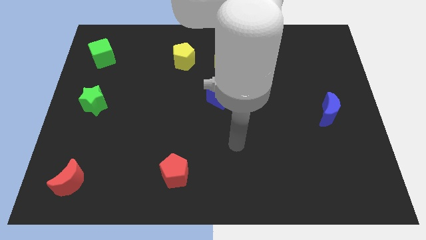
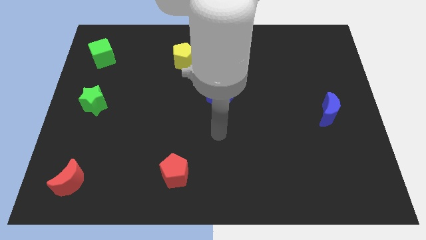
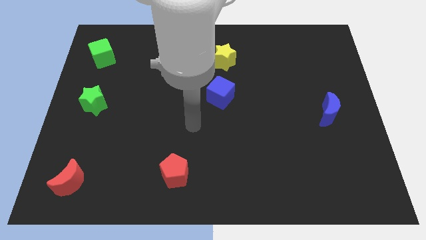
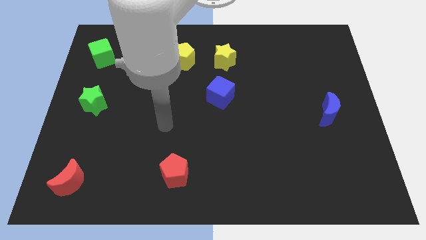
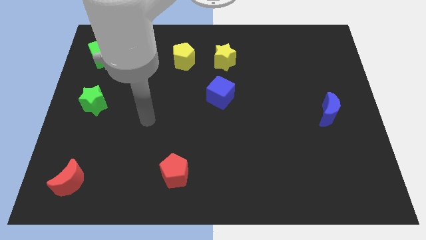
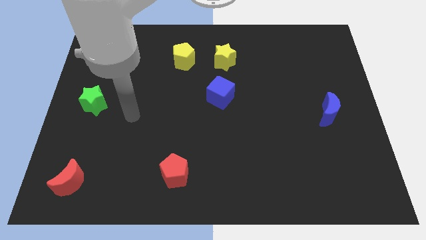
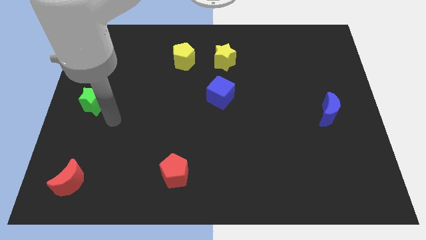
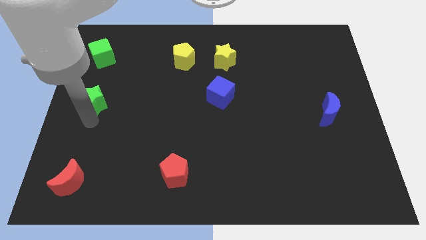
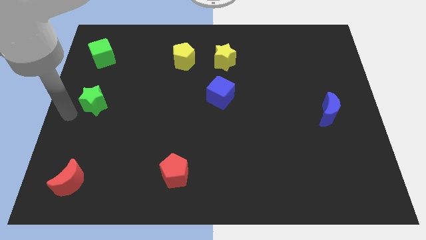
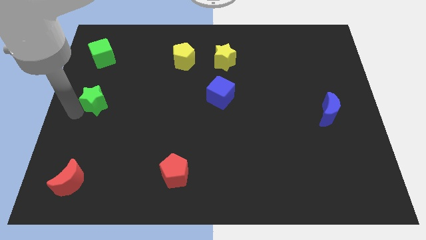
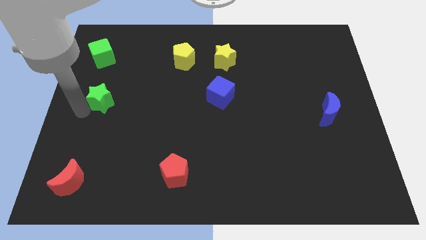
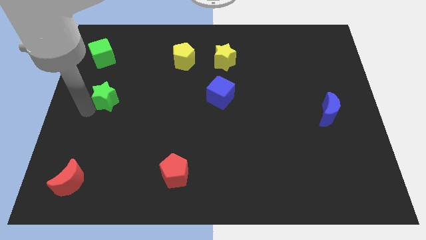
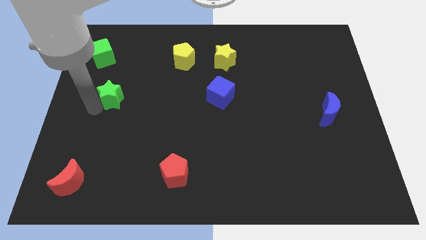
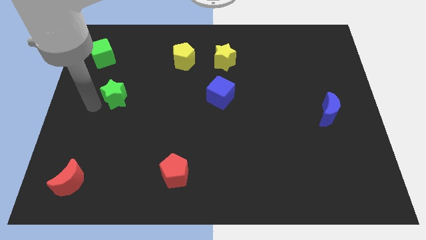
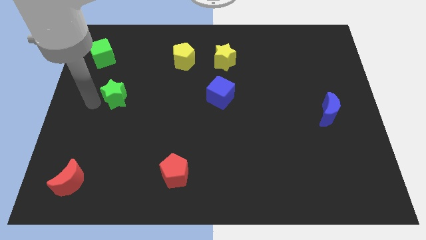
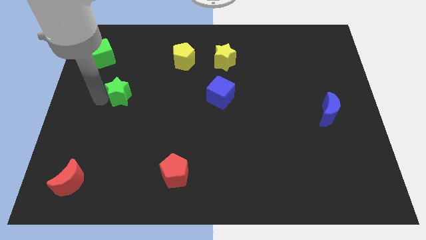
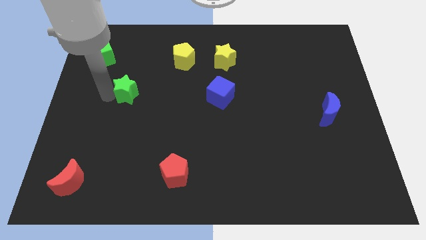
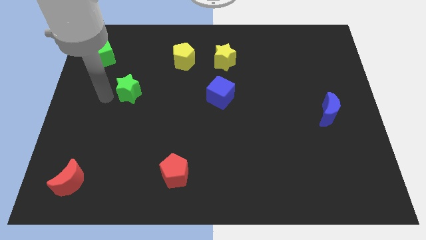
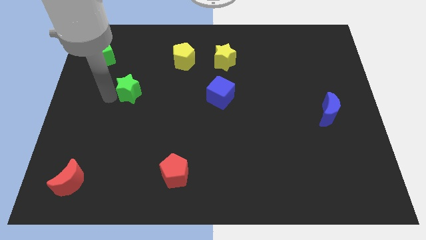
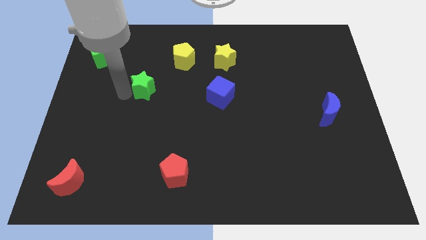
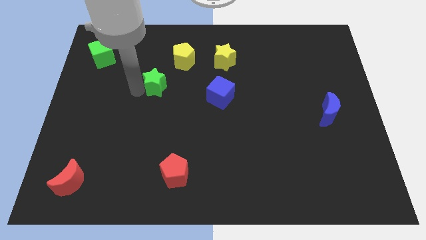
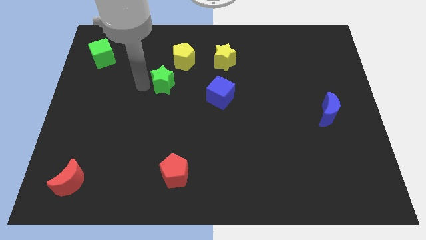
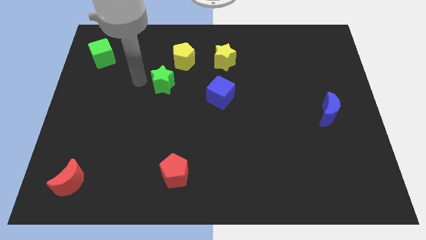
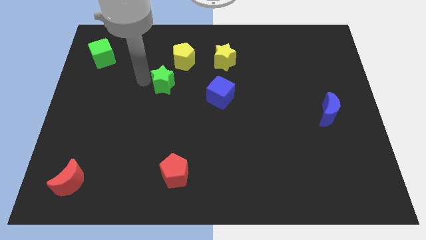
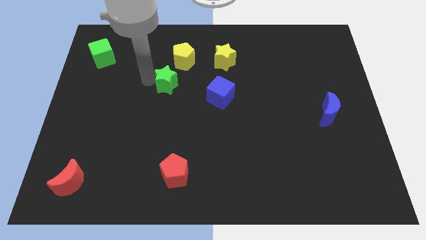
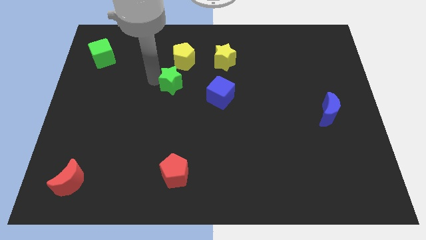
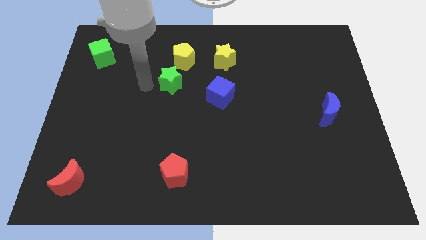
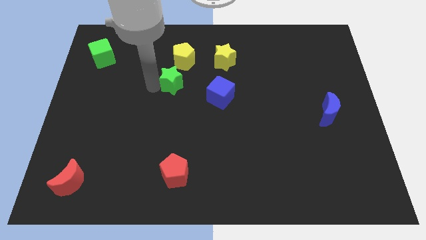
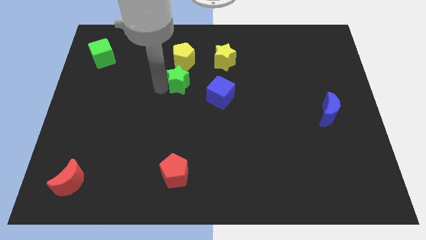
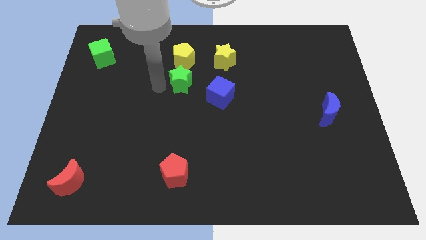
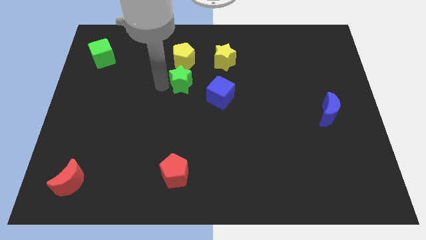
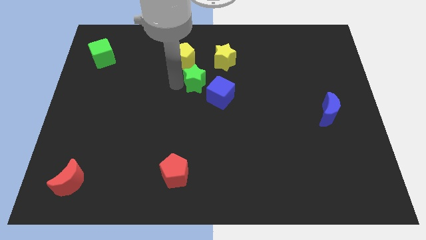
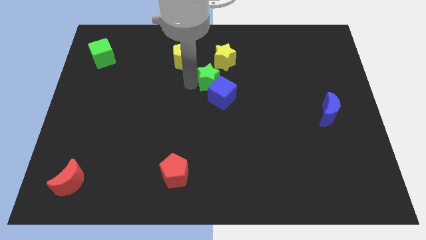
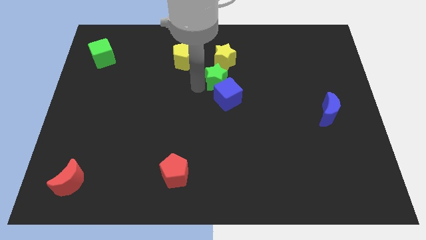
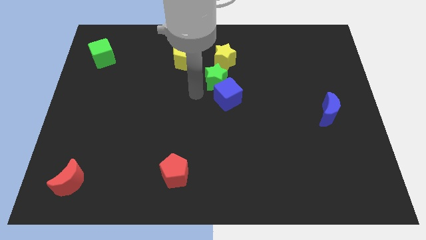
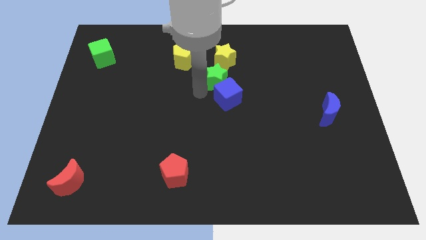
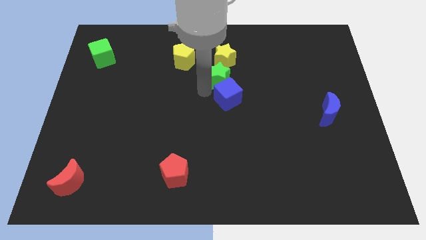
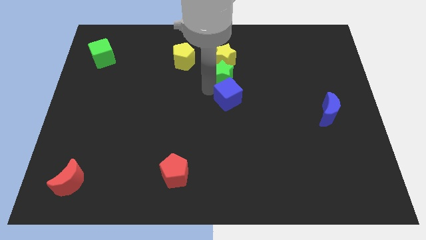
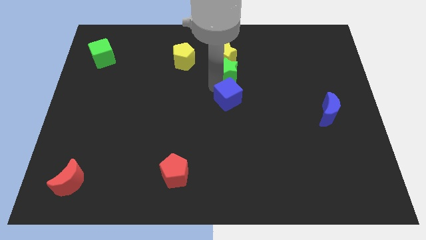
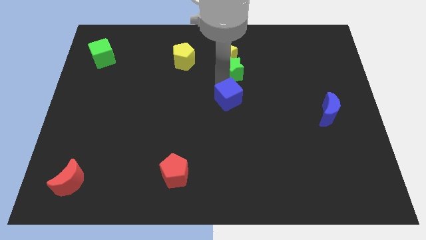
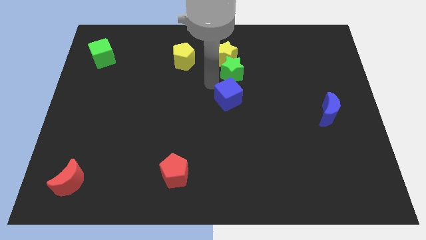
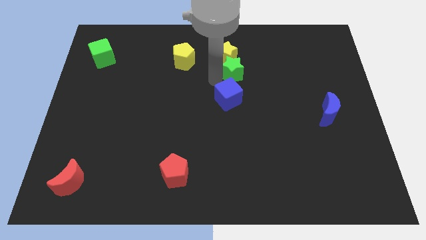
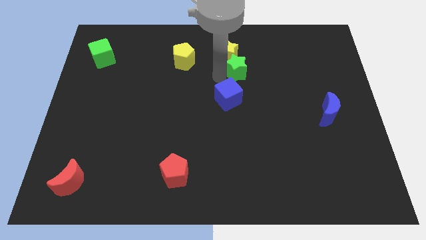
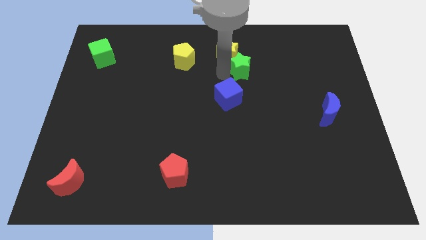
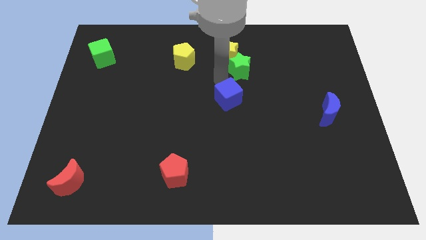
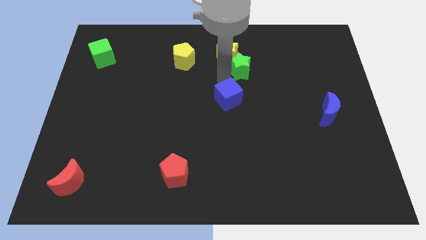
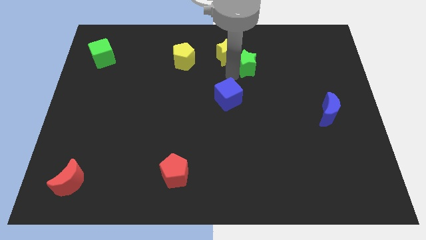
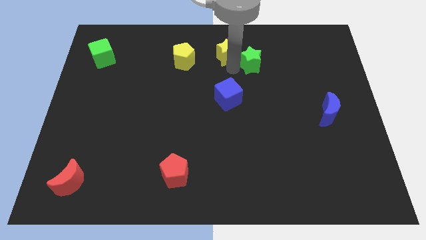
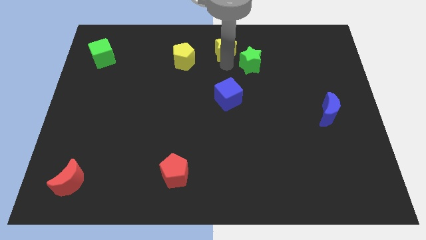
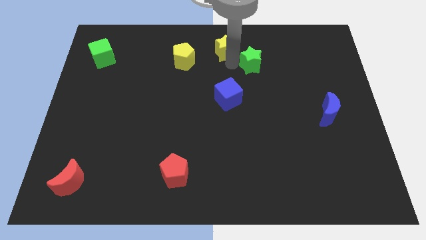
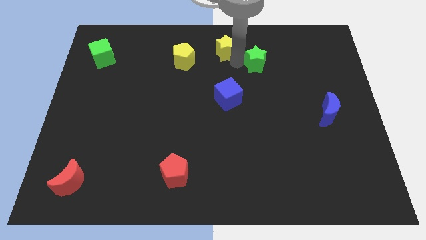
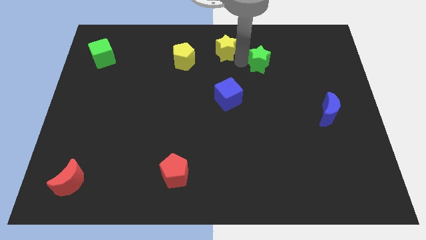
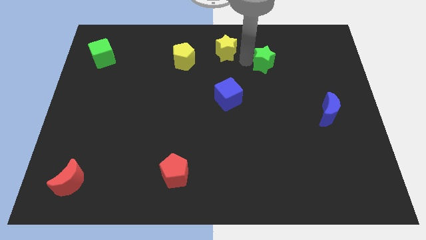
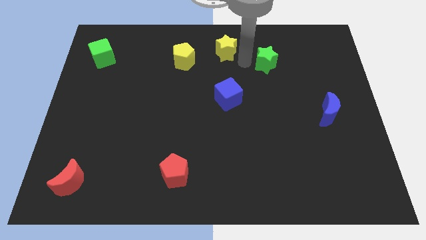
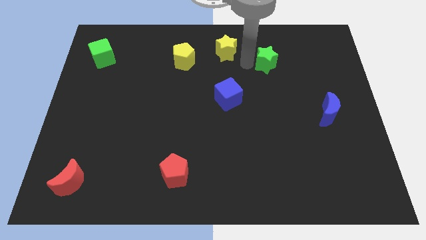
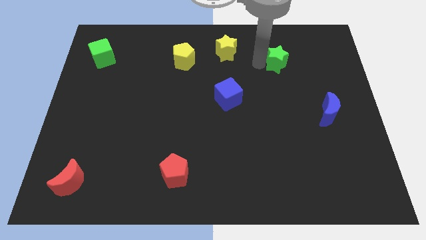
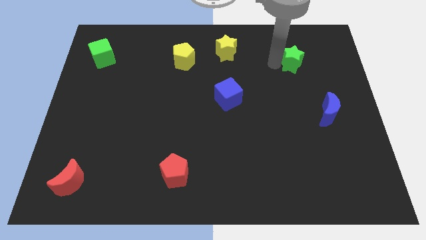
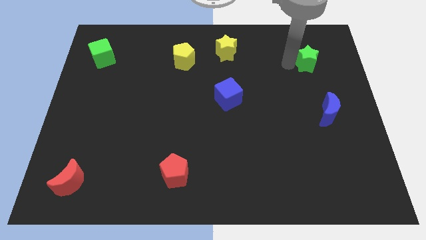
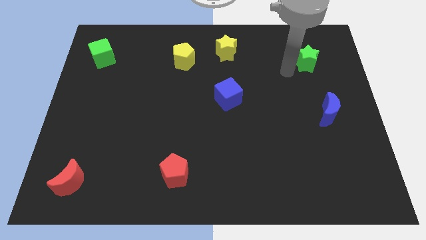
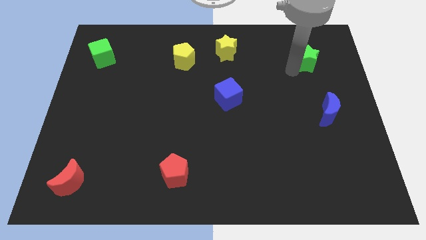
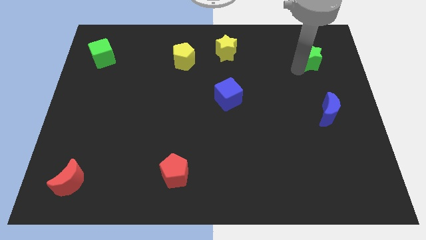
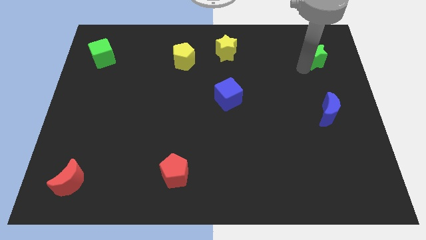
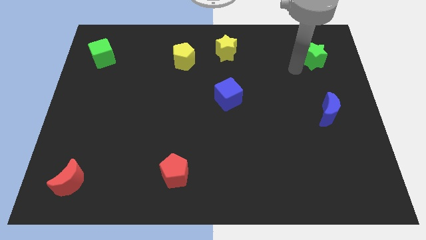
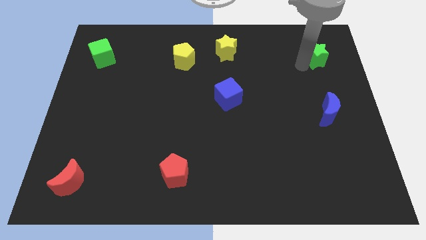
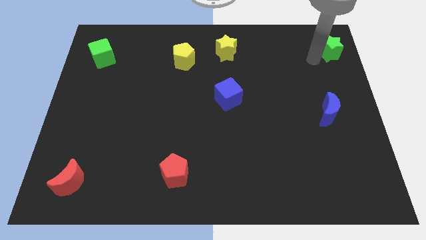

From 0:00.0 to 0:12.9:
slide the green star to the top right corner
